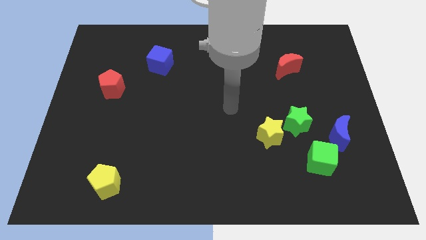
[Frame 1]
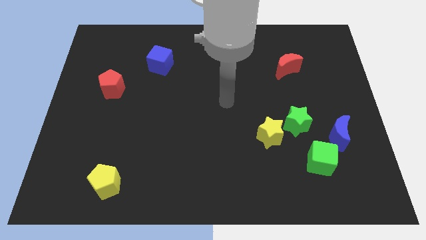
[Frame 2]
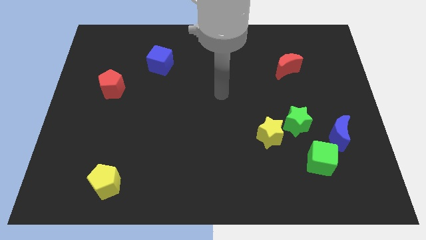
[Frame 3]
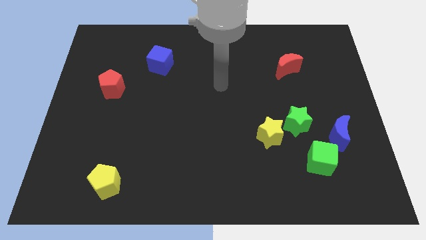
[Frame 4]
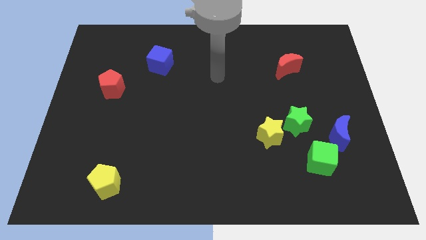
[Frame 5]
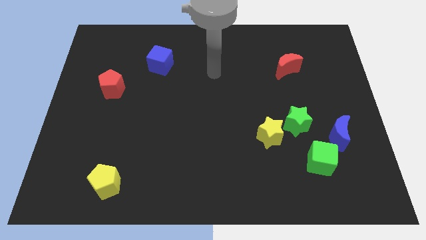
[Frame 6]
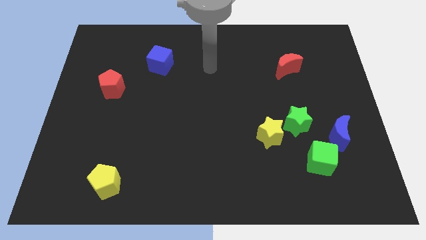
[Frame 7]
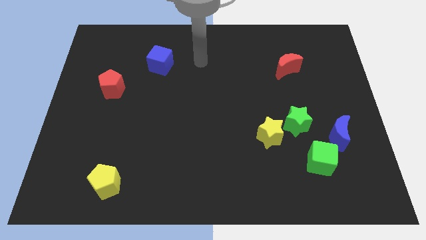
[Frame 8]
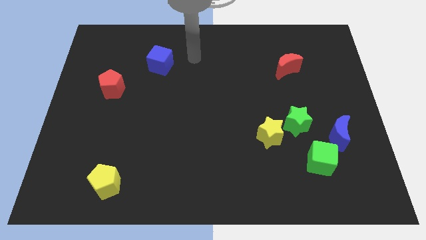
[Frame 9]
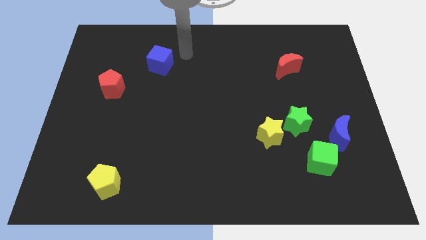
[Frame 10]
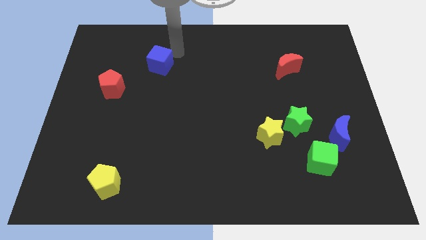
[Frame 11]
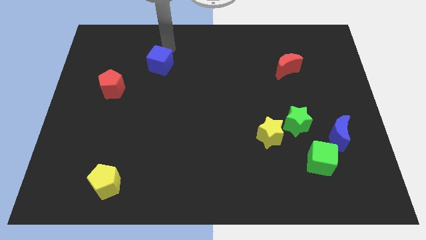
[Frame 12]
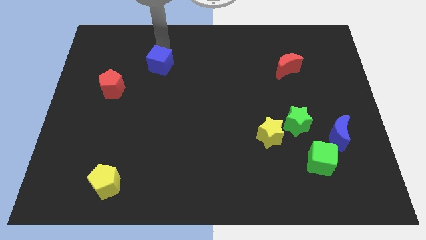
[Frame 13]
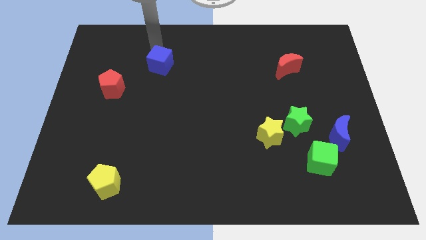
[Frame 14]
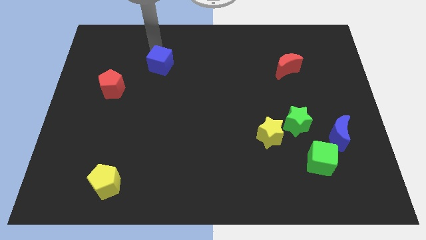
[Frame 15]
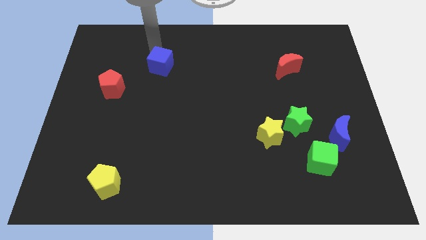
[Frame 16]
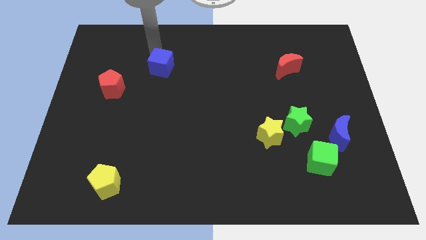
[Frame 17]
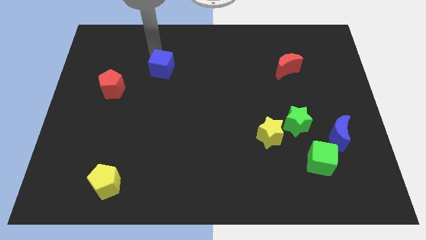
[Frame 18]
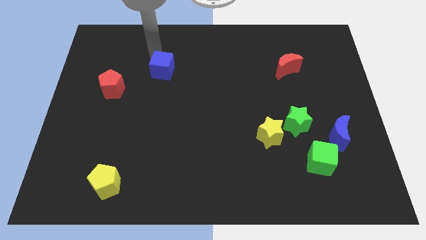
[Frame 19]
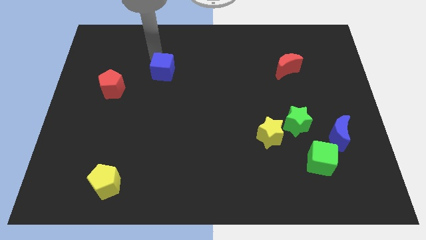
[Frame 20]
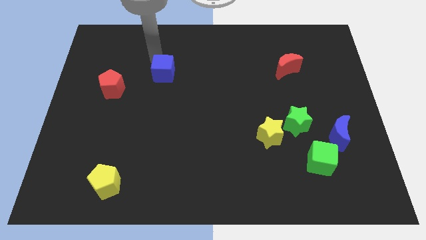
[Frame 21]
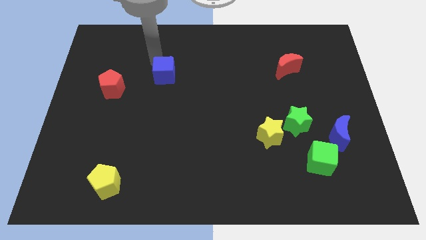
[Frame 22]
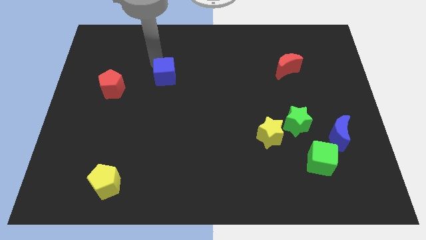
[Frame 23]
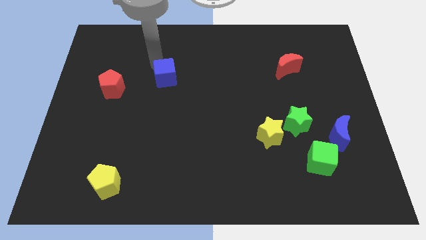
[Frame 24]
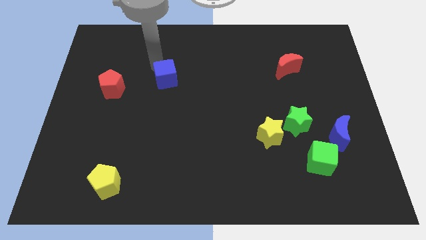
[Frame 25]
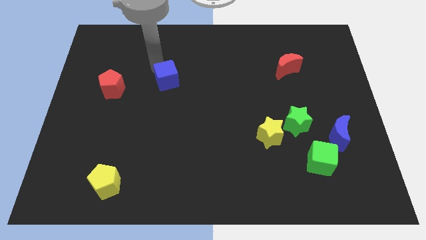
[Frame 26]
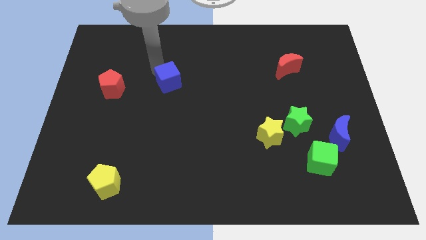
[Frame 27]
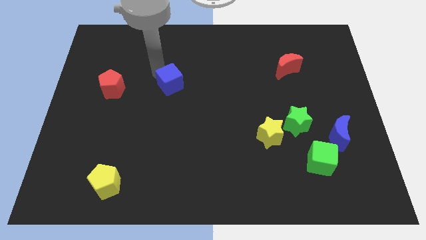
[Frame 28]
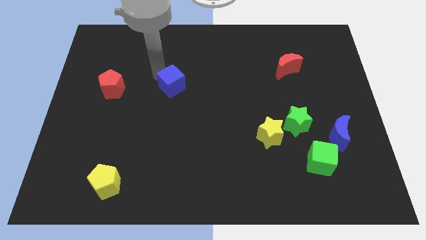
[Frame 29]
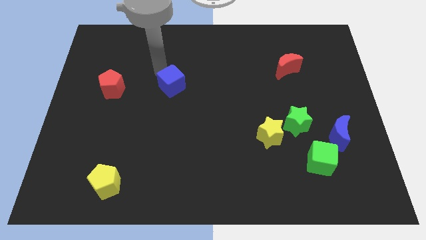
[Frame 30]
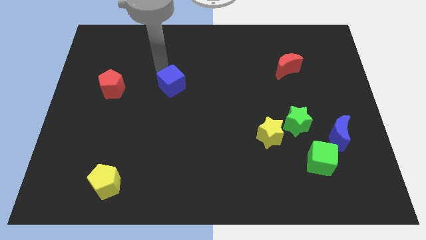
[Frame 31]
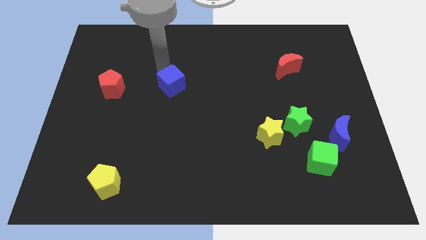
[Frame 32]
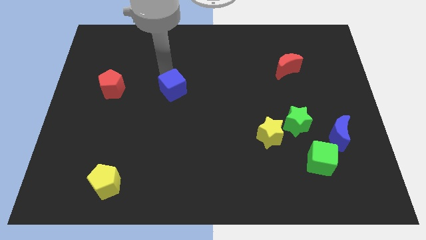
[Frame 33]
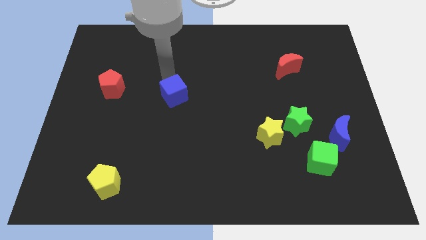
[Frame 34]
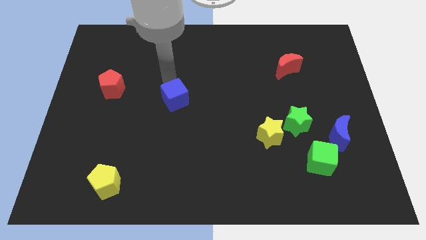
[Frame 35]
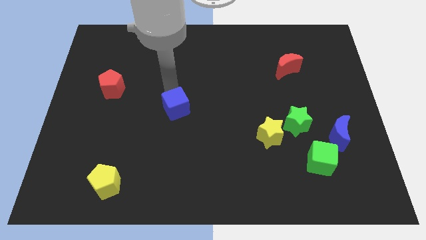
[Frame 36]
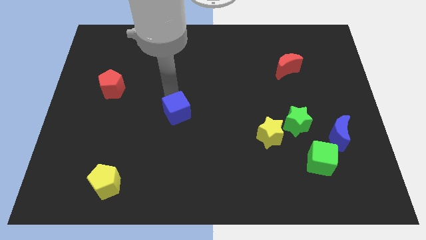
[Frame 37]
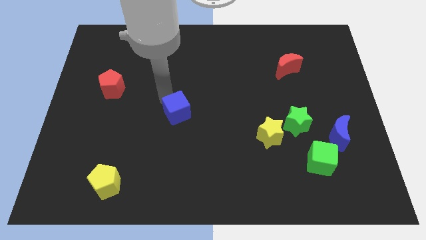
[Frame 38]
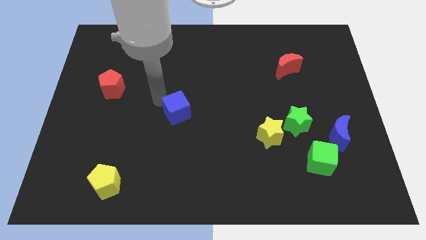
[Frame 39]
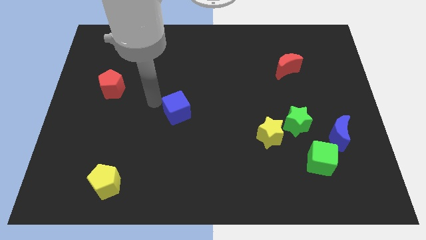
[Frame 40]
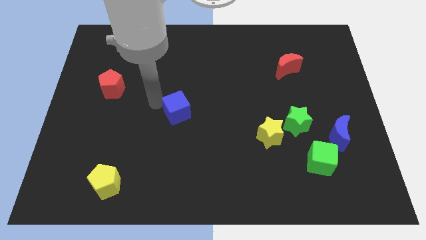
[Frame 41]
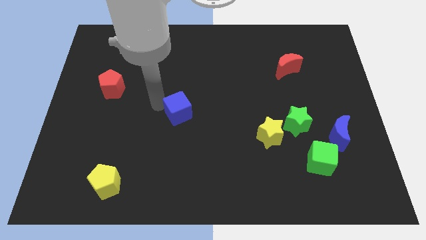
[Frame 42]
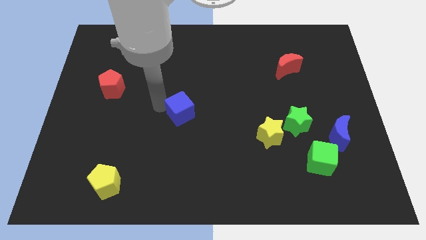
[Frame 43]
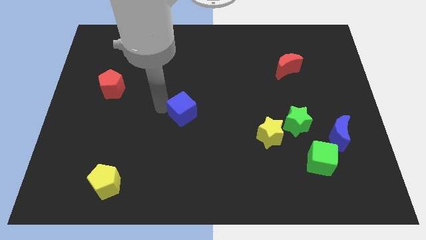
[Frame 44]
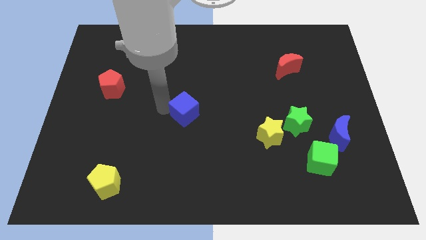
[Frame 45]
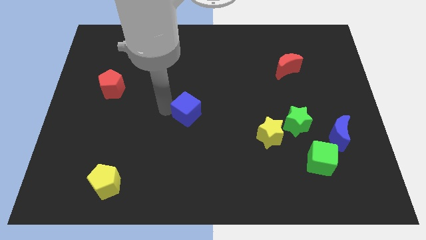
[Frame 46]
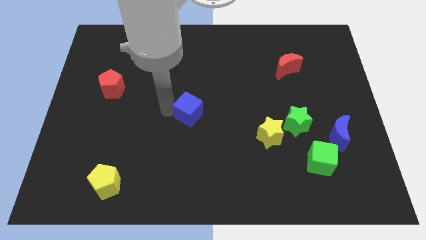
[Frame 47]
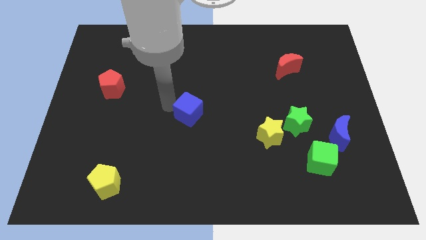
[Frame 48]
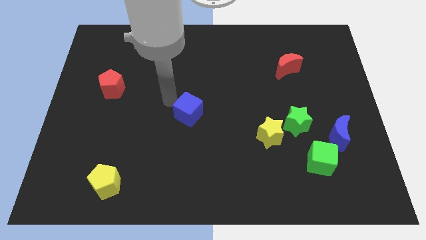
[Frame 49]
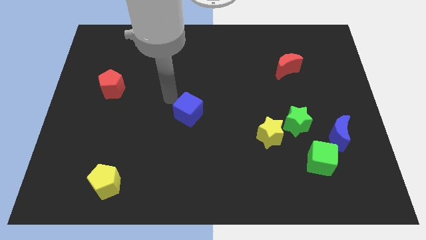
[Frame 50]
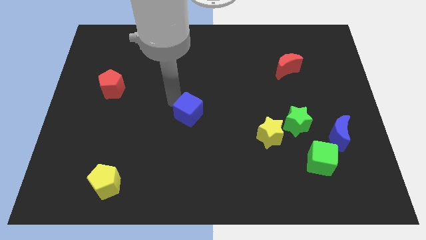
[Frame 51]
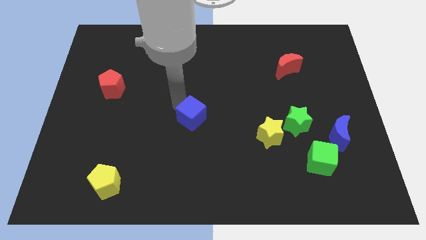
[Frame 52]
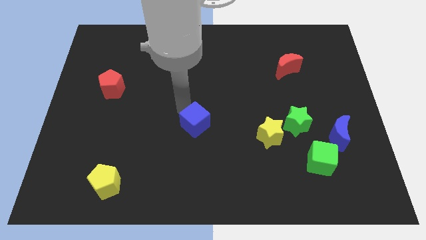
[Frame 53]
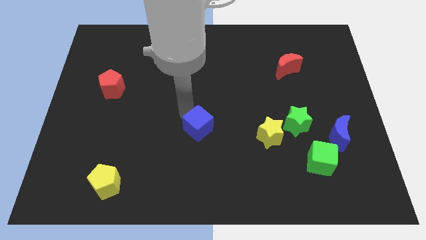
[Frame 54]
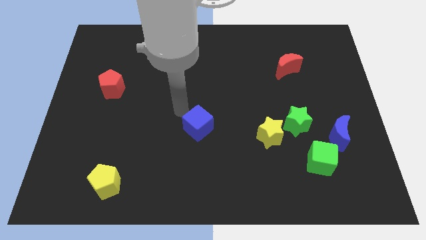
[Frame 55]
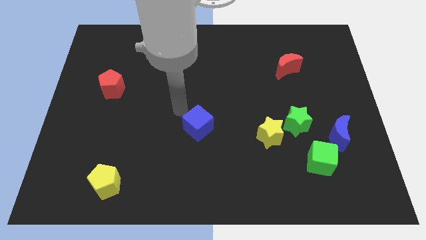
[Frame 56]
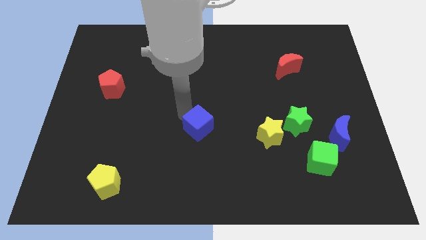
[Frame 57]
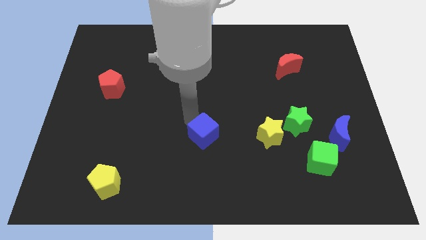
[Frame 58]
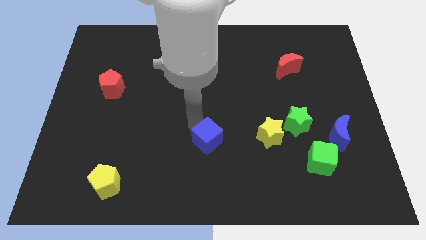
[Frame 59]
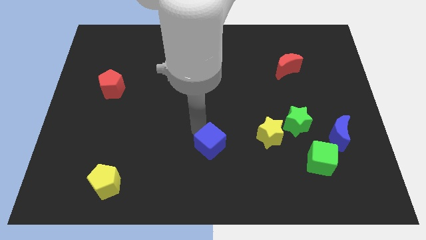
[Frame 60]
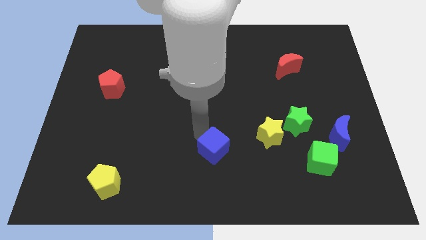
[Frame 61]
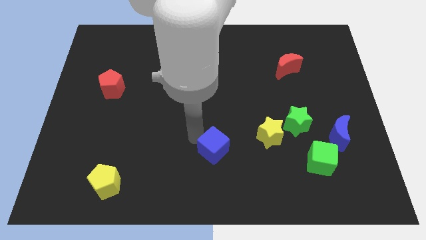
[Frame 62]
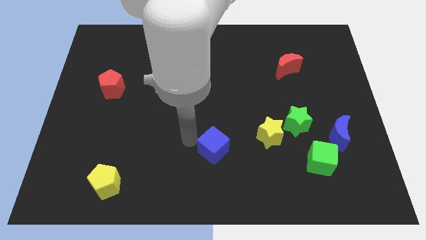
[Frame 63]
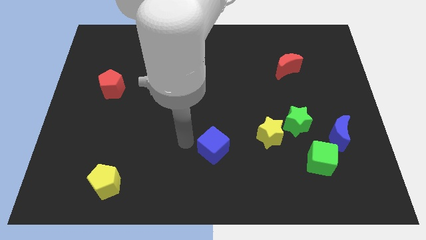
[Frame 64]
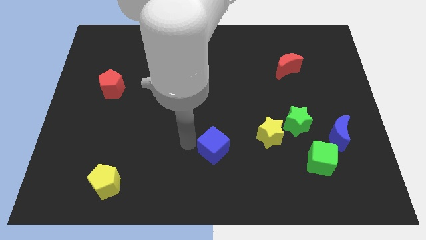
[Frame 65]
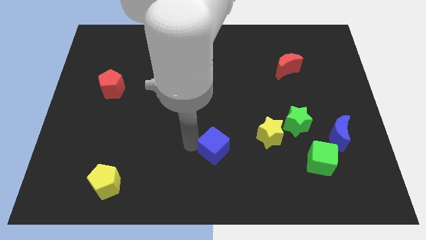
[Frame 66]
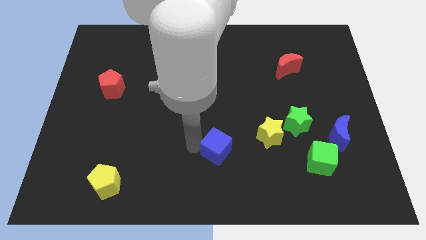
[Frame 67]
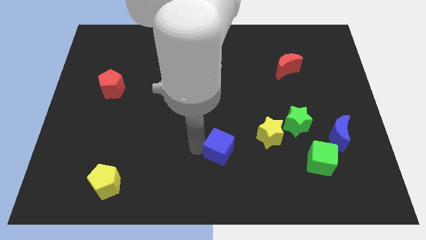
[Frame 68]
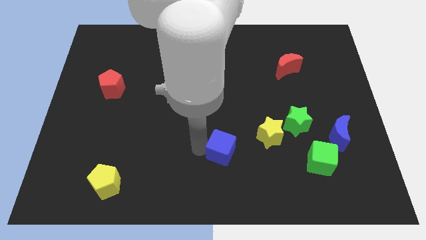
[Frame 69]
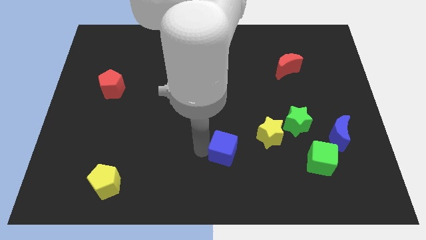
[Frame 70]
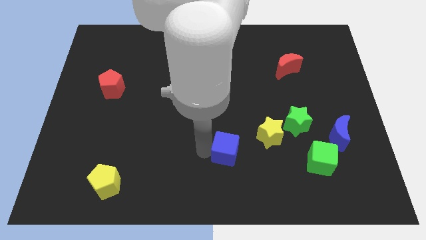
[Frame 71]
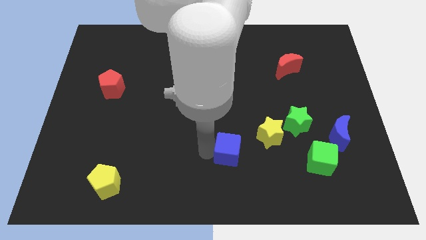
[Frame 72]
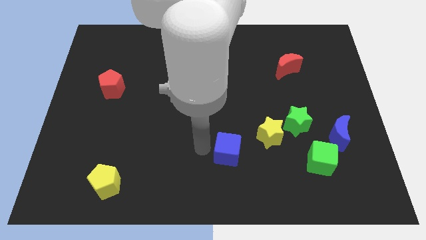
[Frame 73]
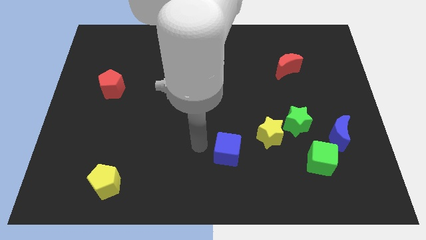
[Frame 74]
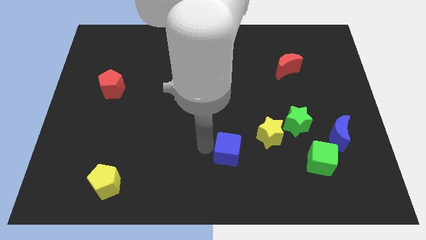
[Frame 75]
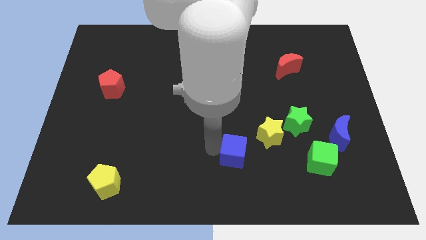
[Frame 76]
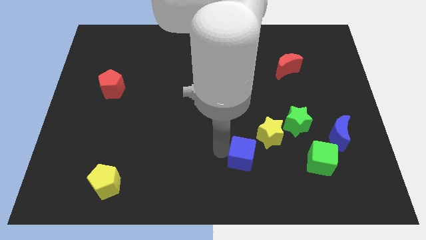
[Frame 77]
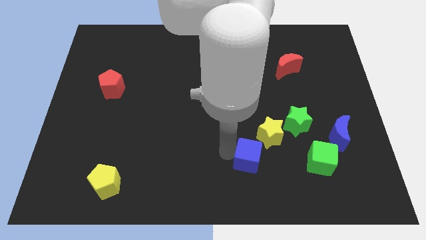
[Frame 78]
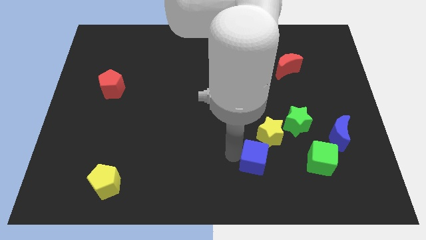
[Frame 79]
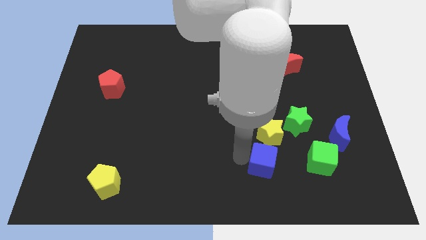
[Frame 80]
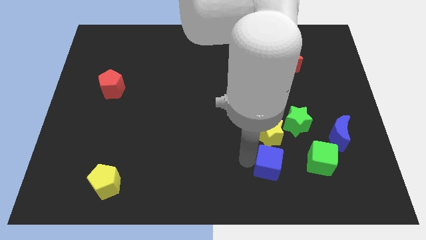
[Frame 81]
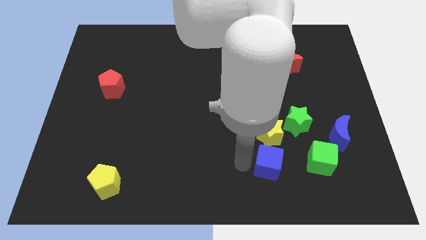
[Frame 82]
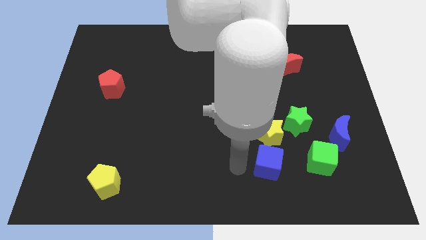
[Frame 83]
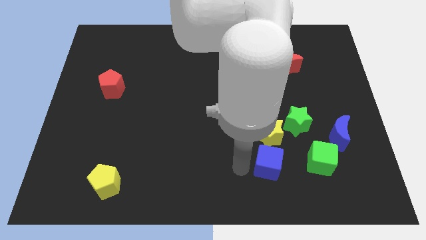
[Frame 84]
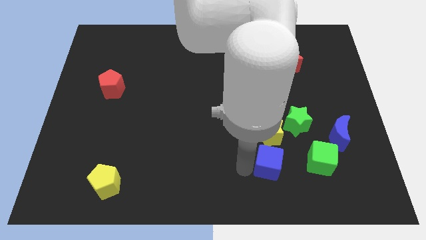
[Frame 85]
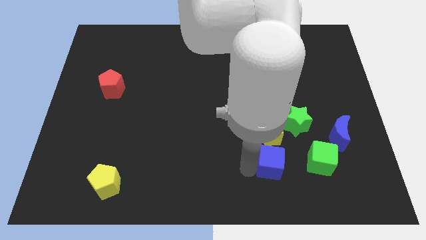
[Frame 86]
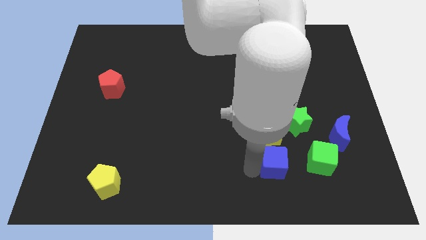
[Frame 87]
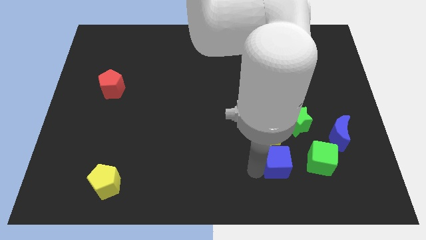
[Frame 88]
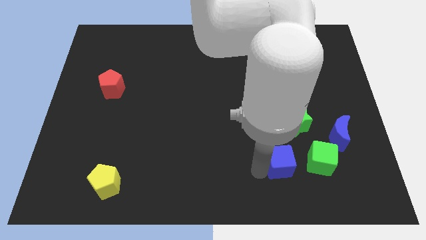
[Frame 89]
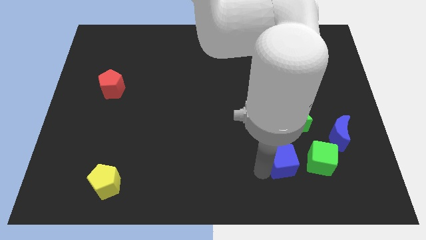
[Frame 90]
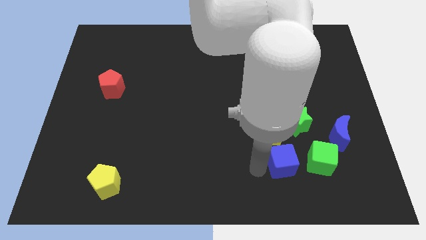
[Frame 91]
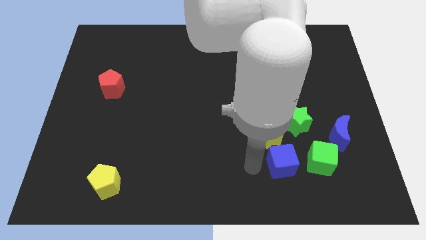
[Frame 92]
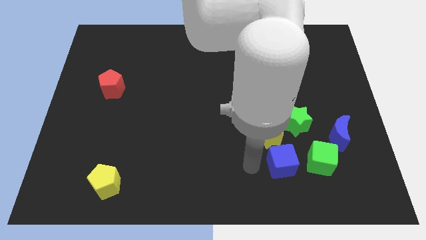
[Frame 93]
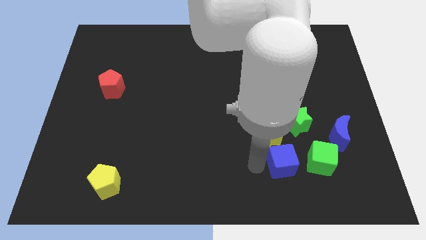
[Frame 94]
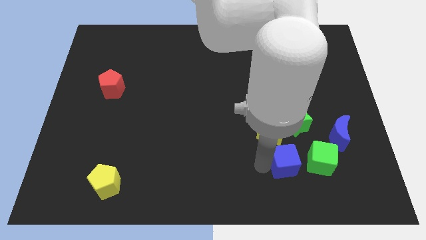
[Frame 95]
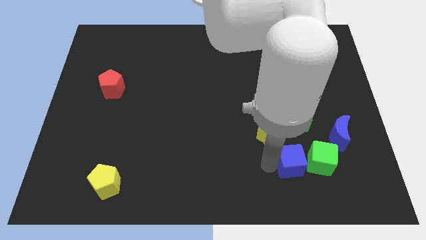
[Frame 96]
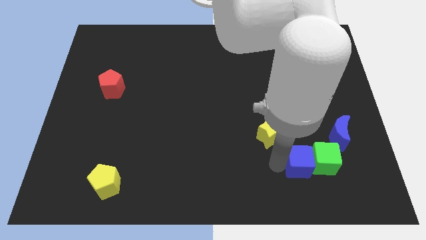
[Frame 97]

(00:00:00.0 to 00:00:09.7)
slide the blue cube to the green cube
